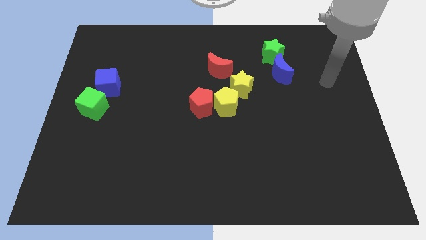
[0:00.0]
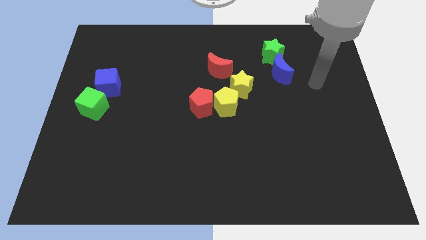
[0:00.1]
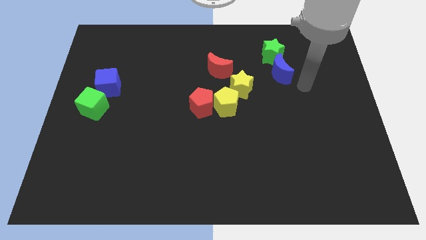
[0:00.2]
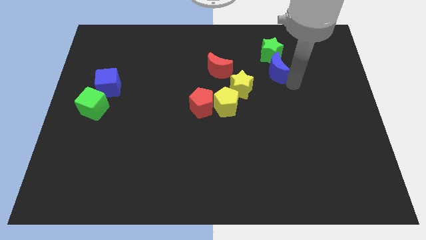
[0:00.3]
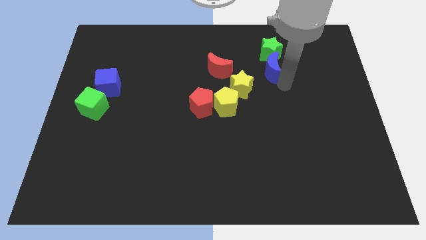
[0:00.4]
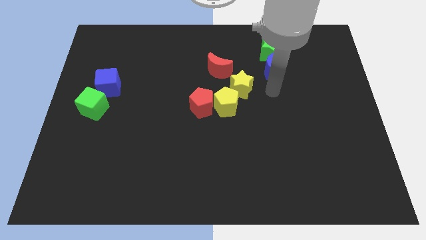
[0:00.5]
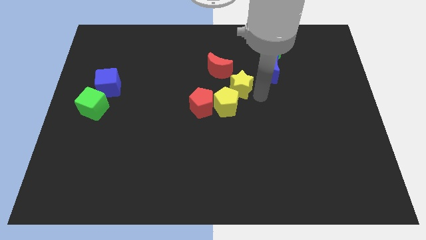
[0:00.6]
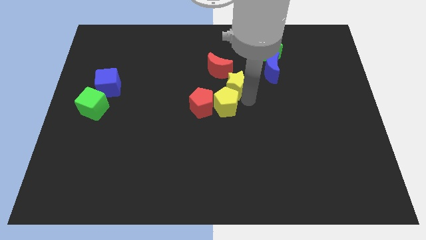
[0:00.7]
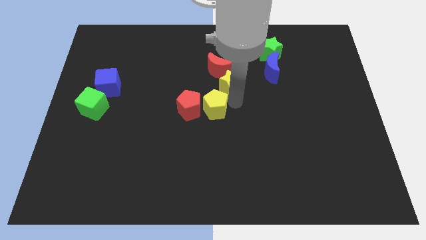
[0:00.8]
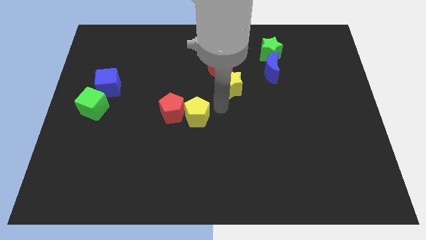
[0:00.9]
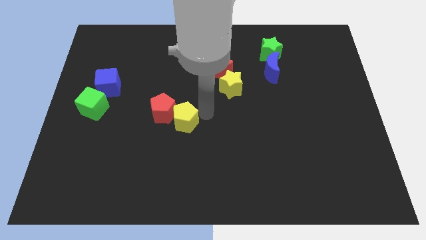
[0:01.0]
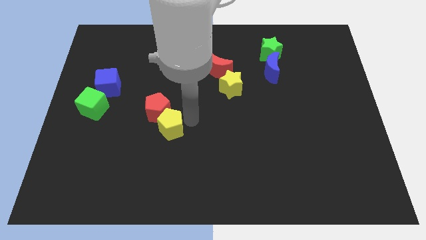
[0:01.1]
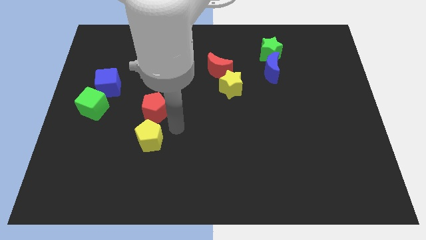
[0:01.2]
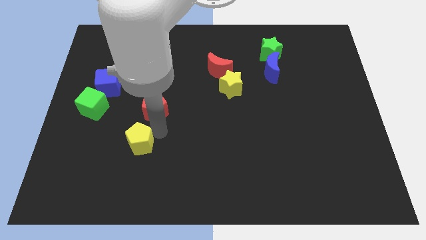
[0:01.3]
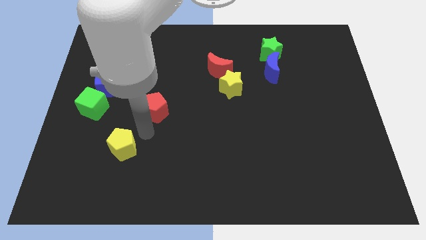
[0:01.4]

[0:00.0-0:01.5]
move the red pentagon away from the yellow pentagon

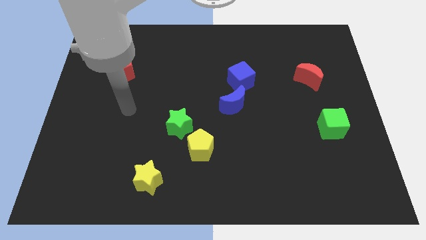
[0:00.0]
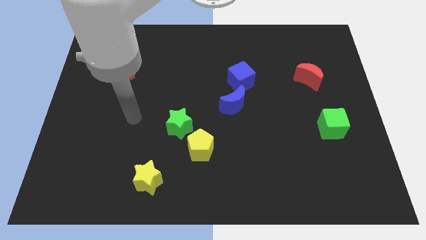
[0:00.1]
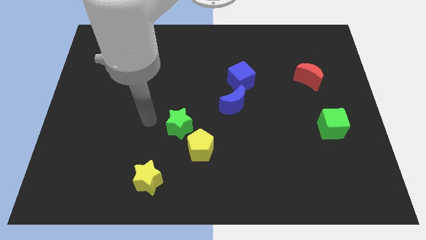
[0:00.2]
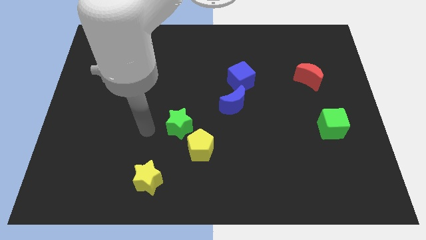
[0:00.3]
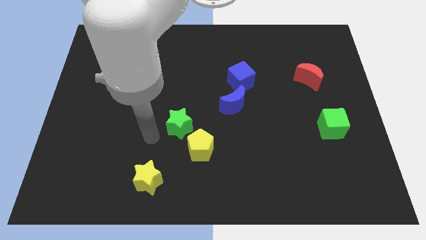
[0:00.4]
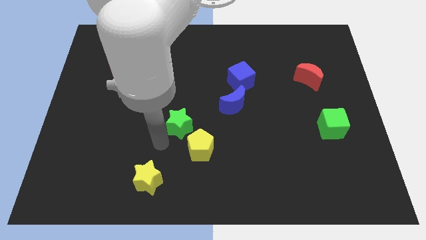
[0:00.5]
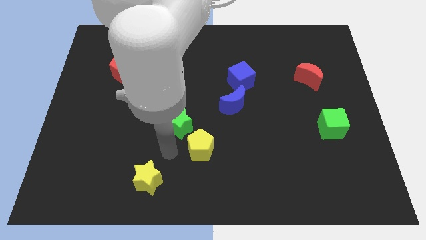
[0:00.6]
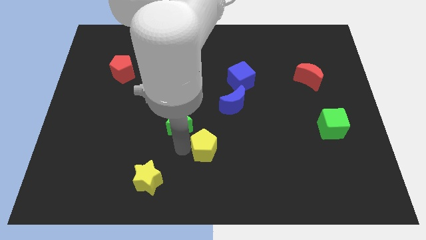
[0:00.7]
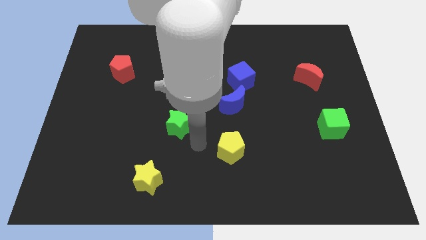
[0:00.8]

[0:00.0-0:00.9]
pull the green star apart from the yellow pentagon

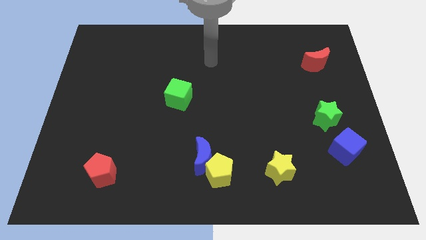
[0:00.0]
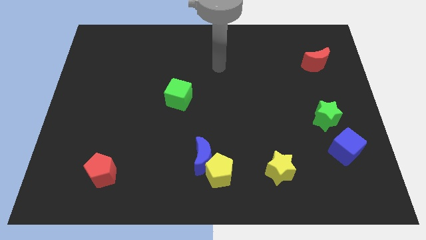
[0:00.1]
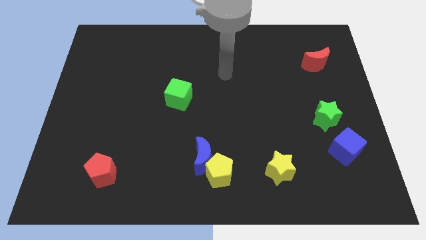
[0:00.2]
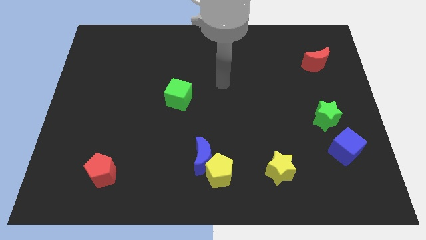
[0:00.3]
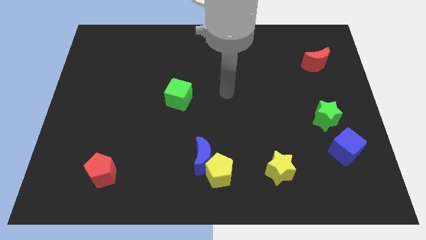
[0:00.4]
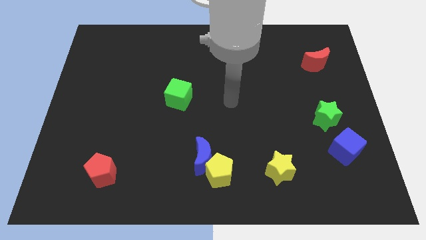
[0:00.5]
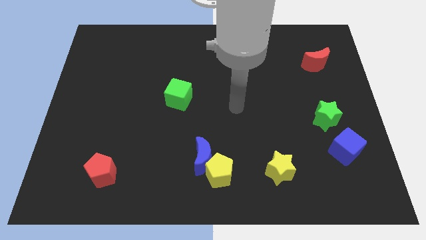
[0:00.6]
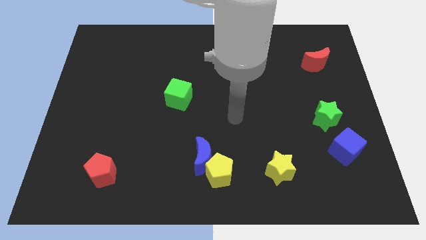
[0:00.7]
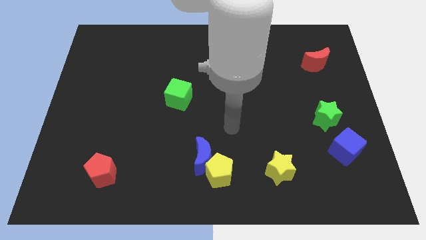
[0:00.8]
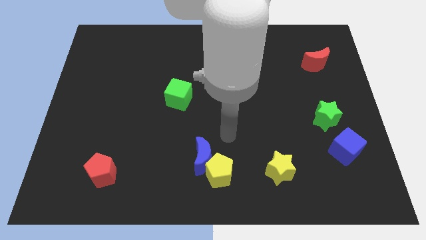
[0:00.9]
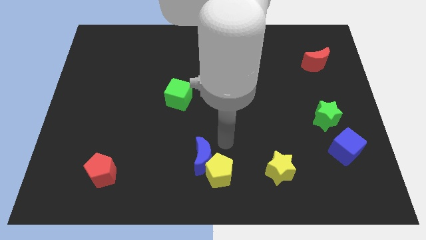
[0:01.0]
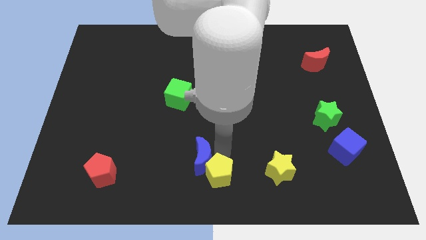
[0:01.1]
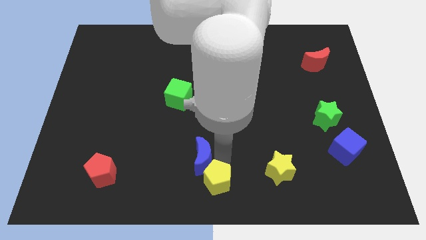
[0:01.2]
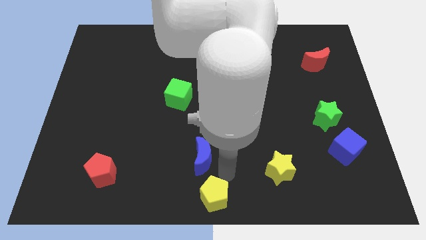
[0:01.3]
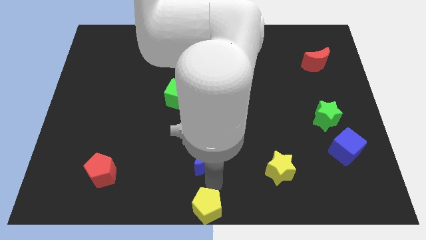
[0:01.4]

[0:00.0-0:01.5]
move the blue moon away from the yellow pentagon

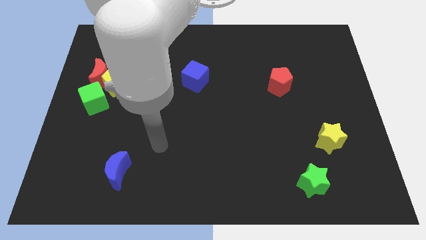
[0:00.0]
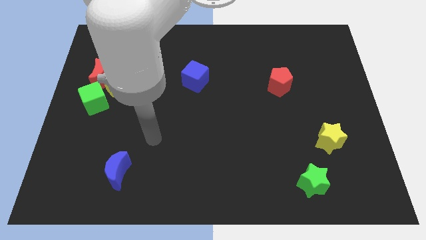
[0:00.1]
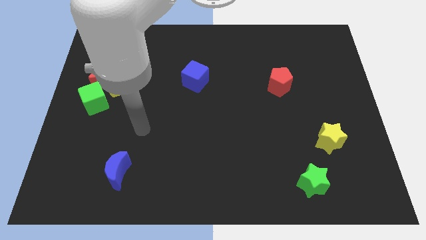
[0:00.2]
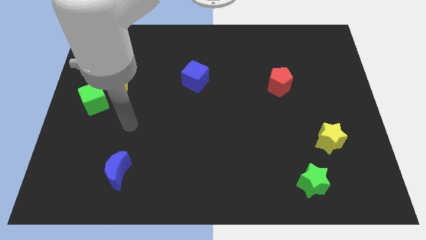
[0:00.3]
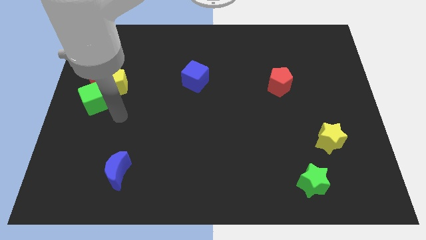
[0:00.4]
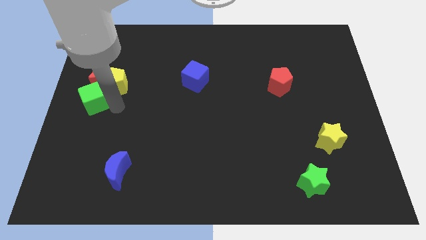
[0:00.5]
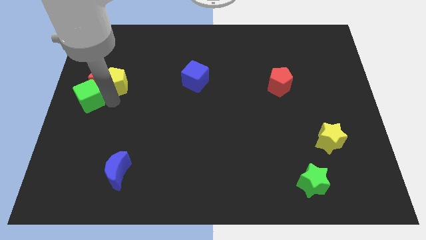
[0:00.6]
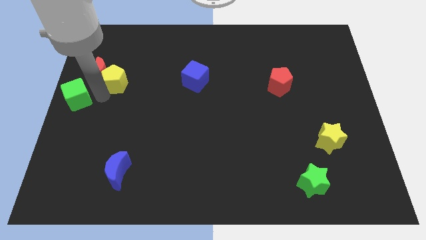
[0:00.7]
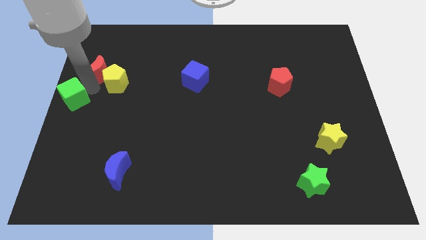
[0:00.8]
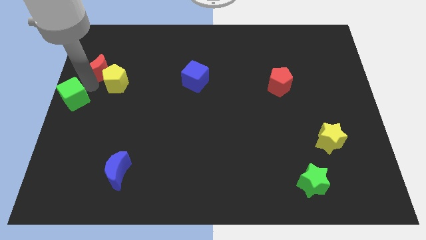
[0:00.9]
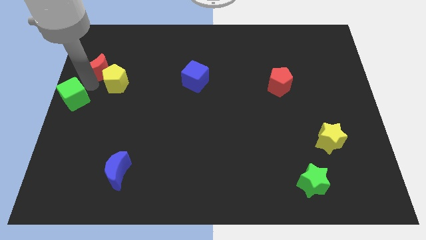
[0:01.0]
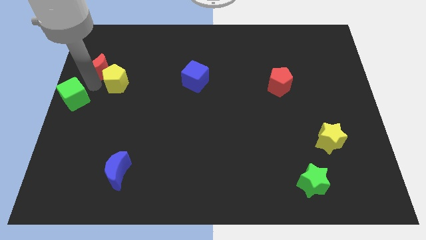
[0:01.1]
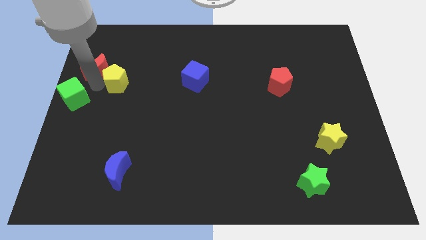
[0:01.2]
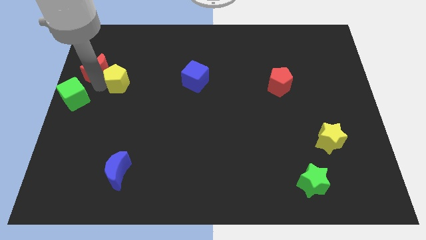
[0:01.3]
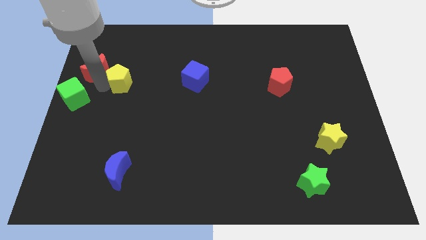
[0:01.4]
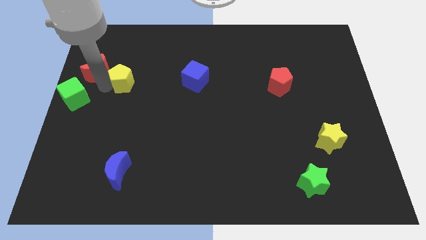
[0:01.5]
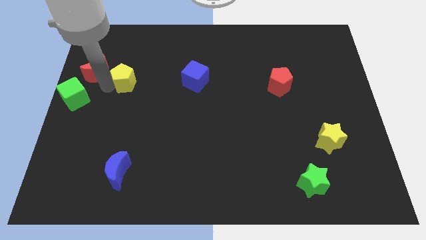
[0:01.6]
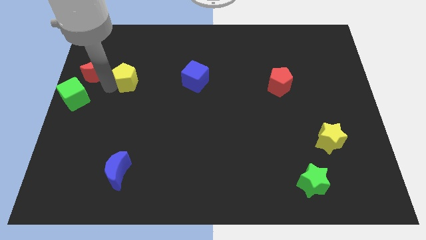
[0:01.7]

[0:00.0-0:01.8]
move the yellow pentagon away from the red moon and green cube

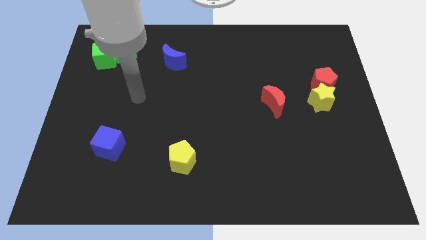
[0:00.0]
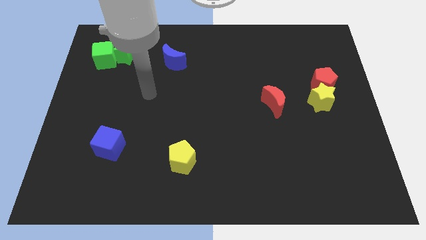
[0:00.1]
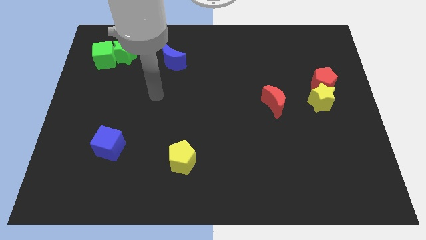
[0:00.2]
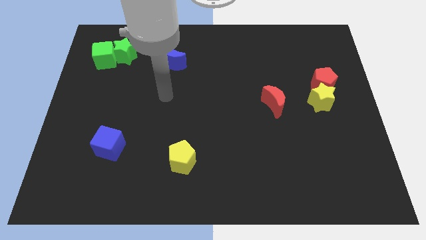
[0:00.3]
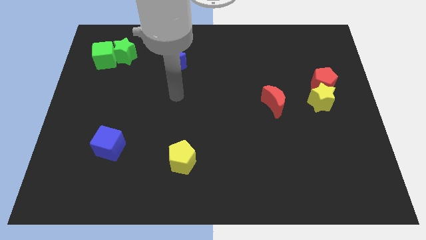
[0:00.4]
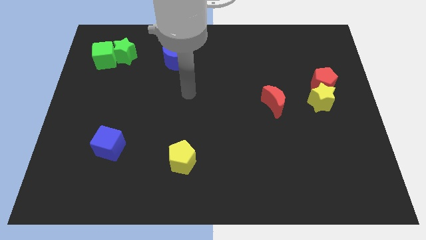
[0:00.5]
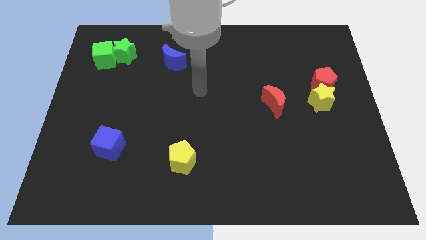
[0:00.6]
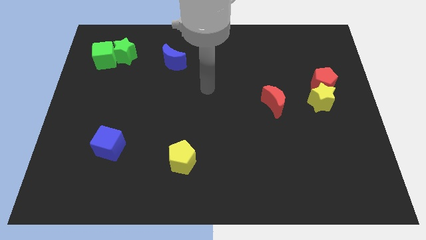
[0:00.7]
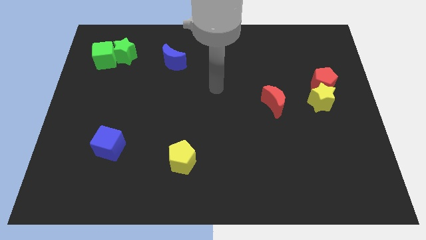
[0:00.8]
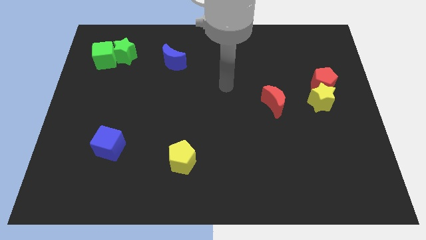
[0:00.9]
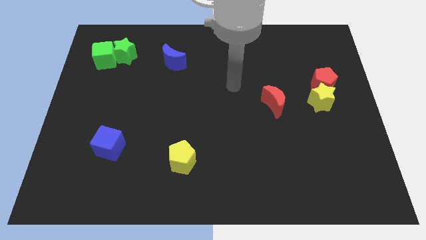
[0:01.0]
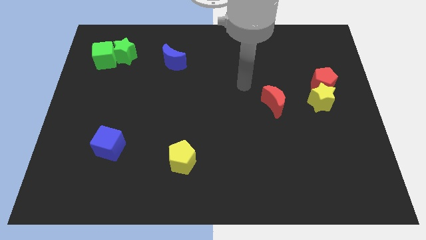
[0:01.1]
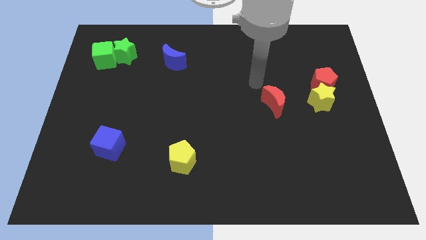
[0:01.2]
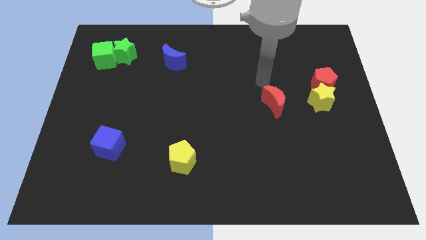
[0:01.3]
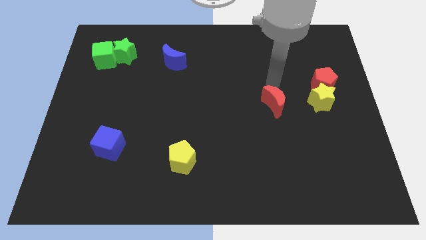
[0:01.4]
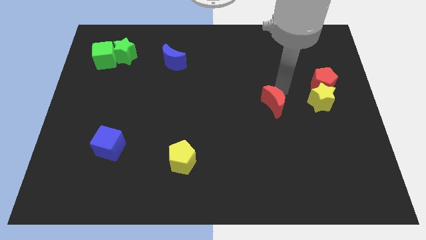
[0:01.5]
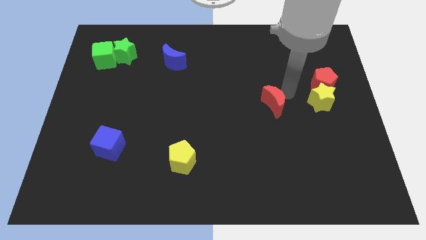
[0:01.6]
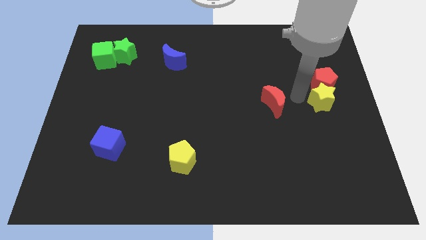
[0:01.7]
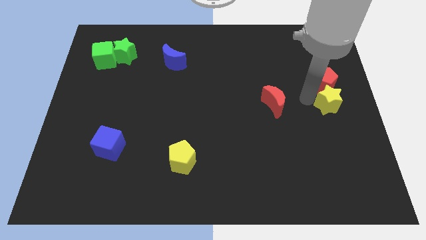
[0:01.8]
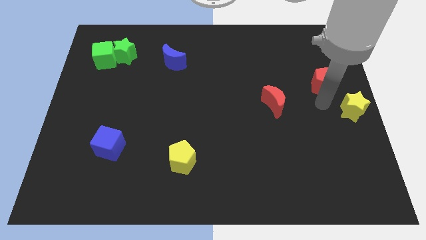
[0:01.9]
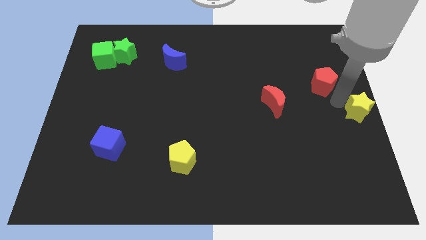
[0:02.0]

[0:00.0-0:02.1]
move the red pentagon away from the yellow star

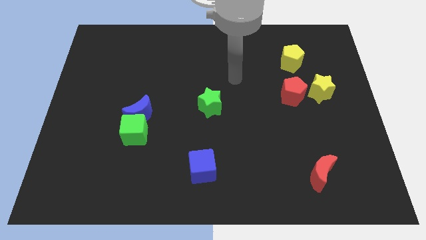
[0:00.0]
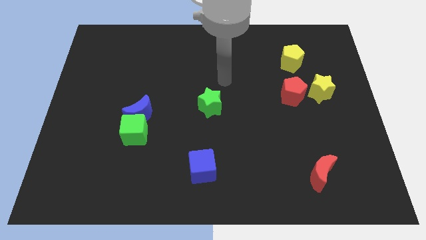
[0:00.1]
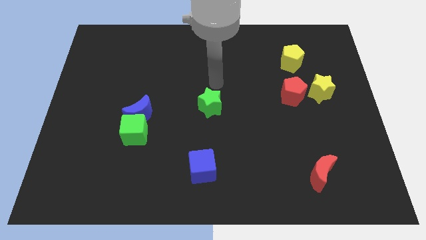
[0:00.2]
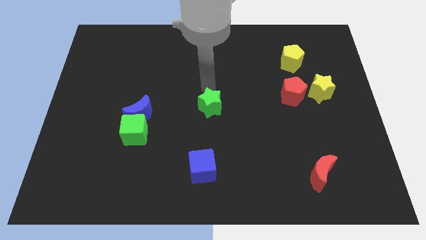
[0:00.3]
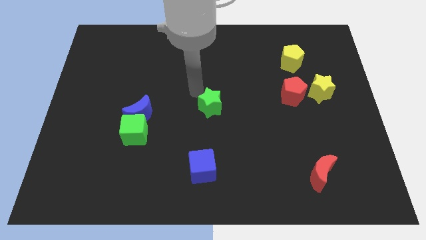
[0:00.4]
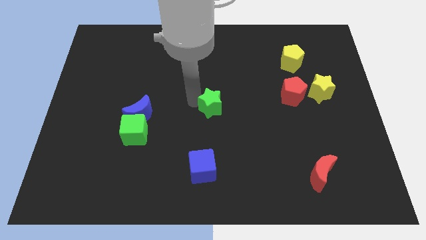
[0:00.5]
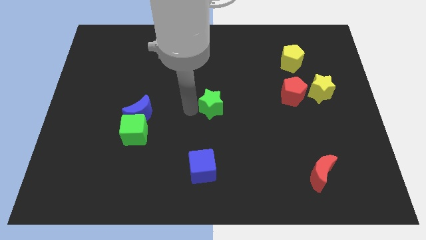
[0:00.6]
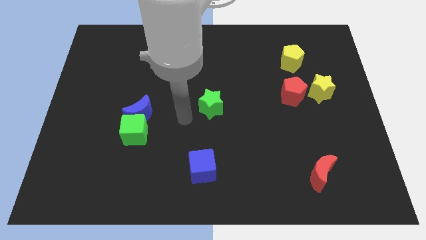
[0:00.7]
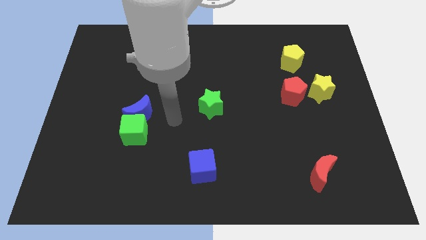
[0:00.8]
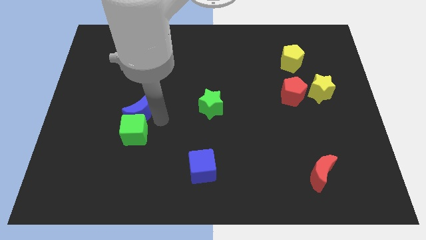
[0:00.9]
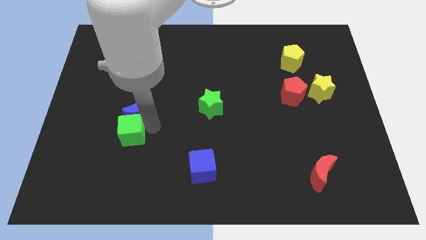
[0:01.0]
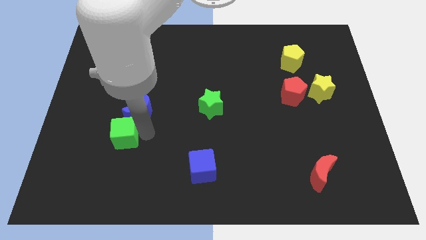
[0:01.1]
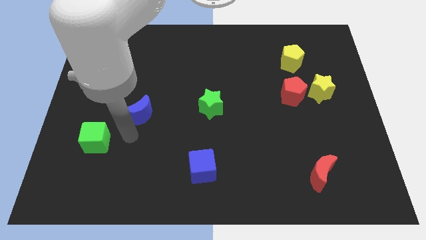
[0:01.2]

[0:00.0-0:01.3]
pull the blue moon apart from the green cube
